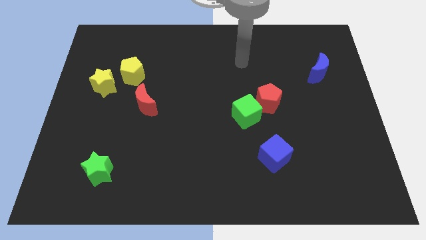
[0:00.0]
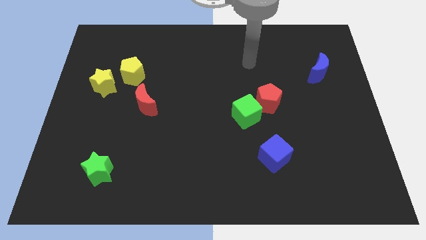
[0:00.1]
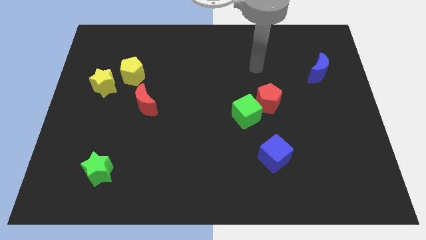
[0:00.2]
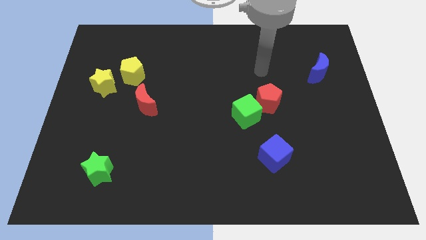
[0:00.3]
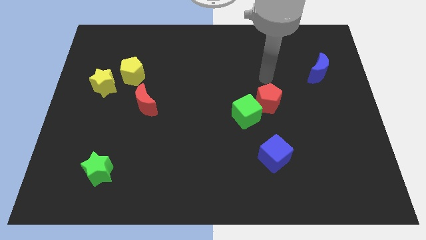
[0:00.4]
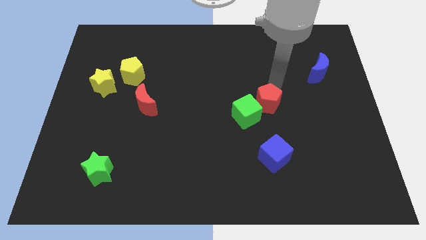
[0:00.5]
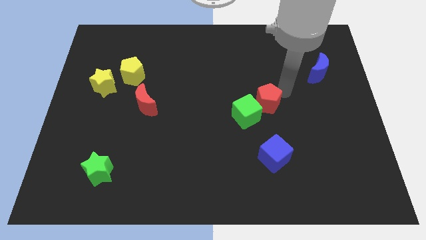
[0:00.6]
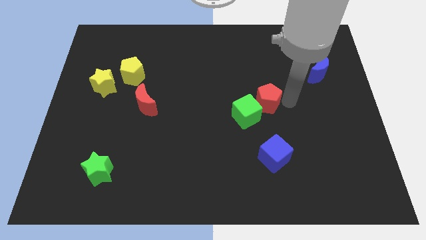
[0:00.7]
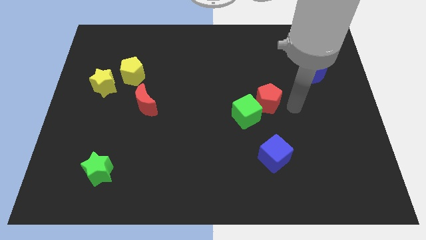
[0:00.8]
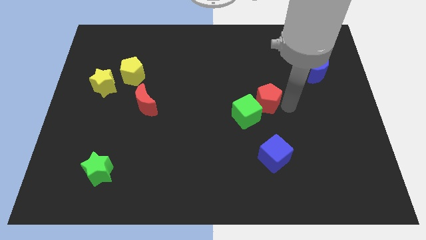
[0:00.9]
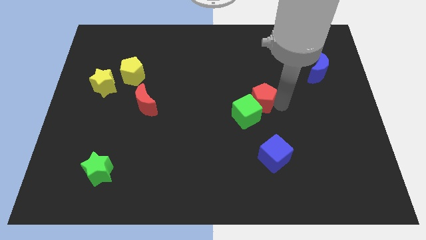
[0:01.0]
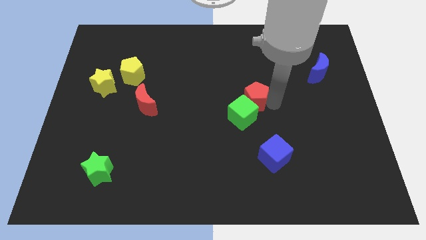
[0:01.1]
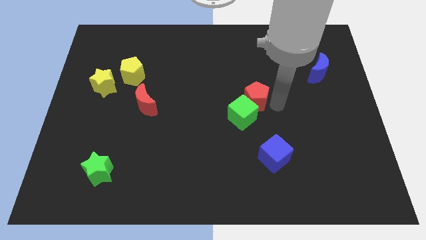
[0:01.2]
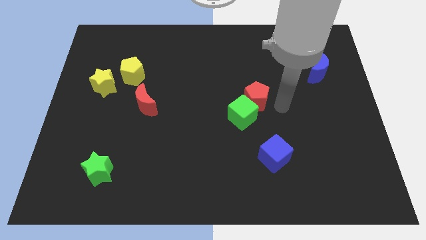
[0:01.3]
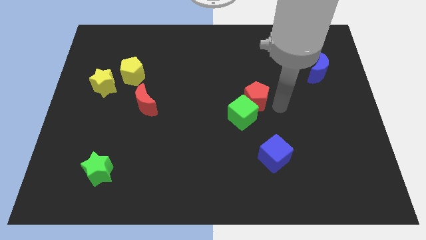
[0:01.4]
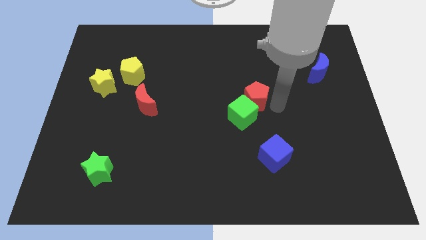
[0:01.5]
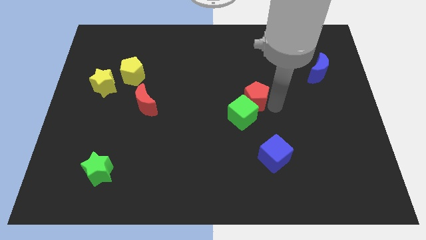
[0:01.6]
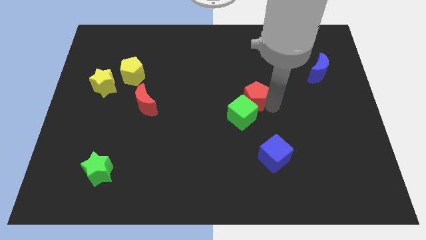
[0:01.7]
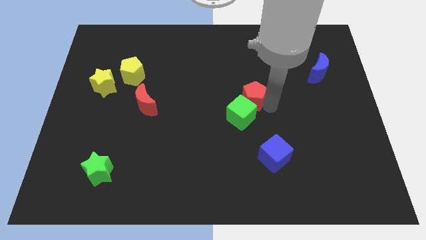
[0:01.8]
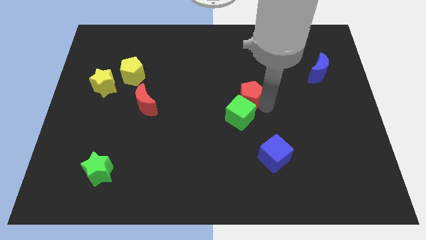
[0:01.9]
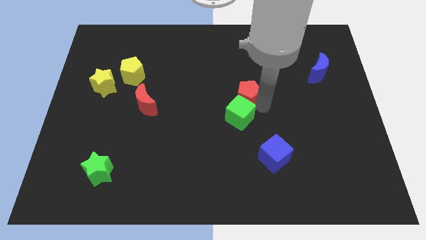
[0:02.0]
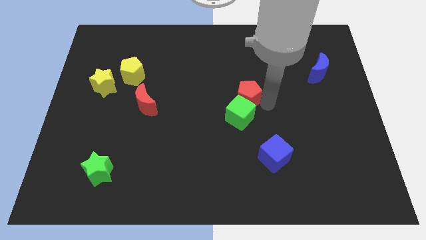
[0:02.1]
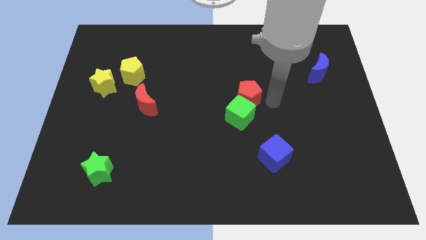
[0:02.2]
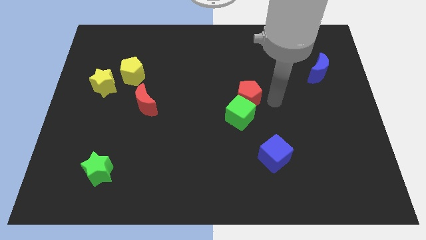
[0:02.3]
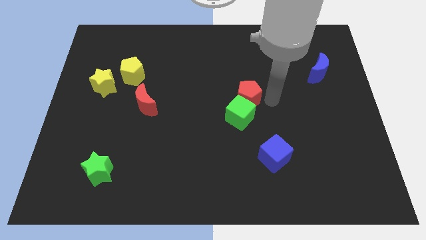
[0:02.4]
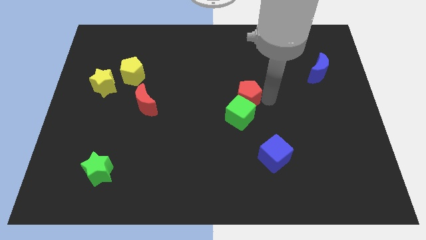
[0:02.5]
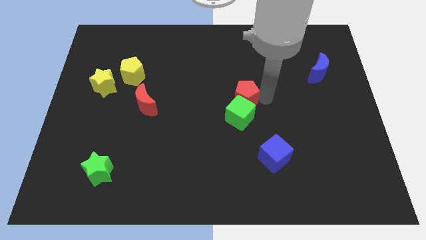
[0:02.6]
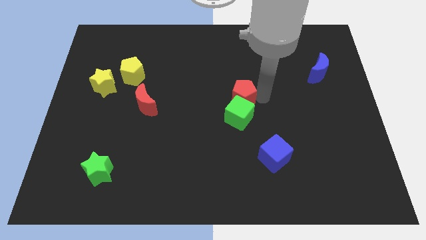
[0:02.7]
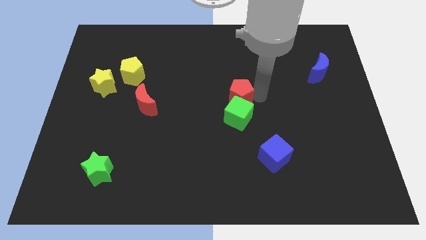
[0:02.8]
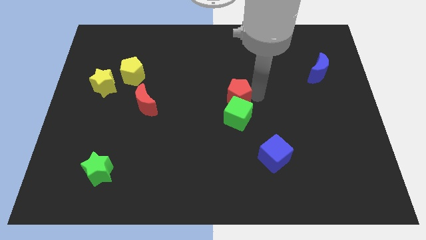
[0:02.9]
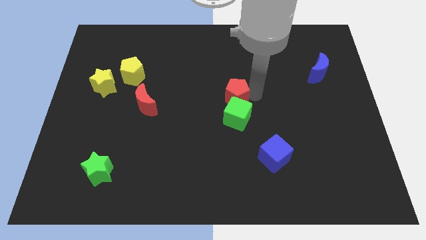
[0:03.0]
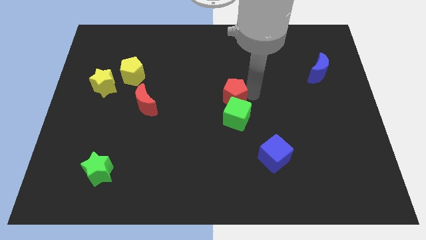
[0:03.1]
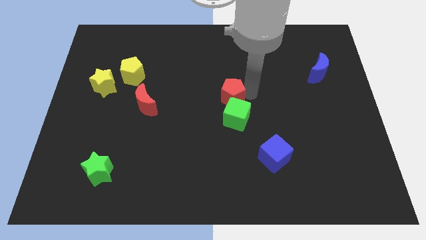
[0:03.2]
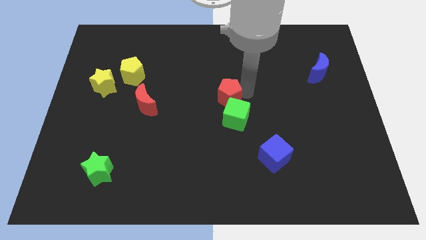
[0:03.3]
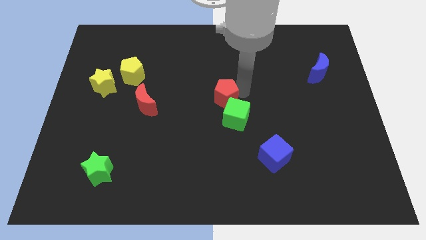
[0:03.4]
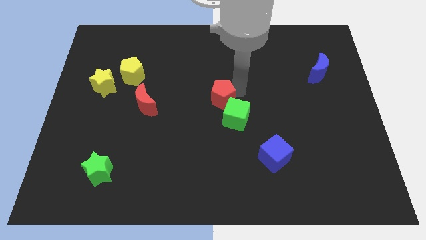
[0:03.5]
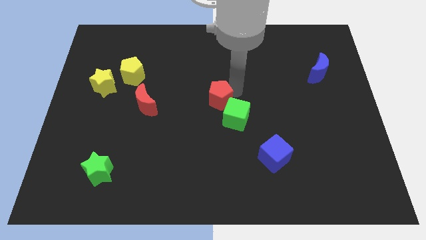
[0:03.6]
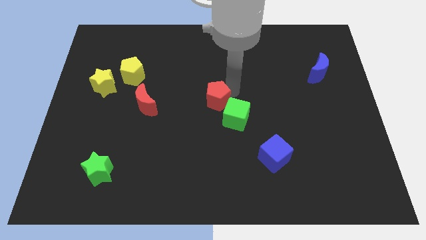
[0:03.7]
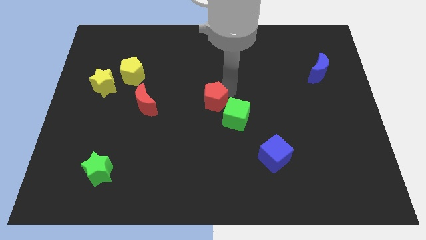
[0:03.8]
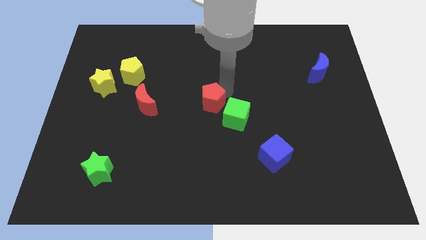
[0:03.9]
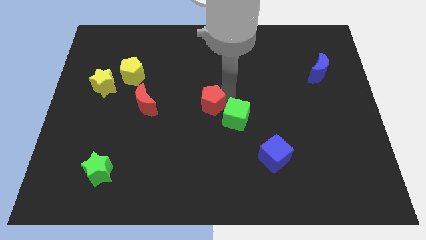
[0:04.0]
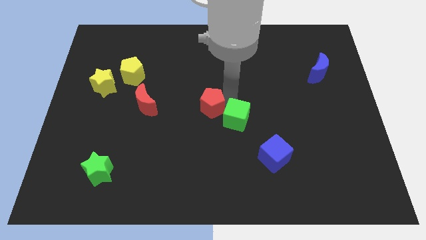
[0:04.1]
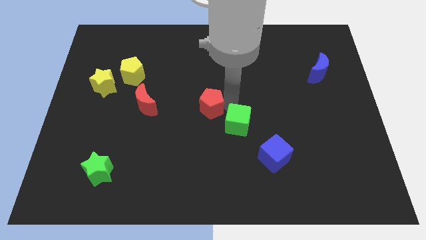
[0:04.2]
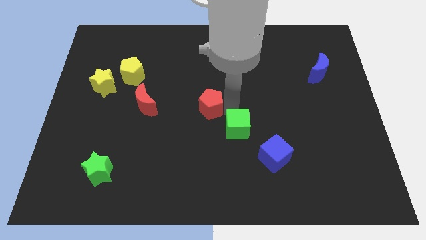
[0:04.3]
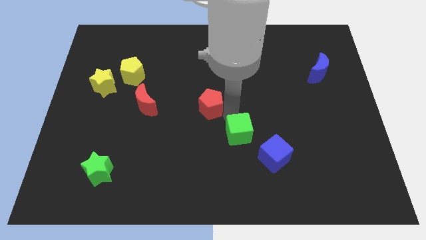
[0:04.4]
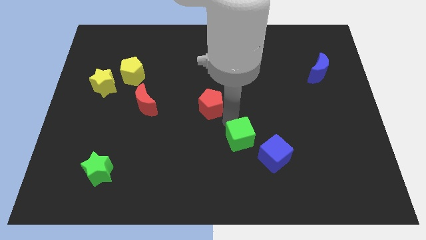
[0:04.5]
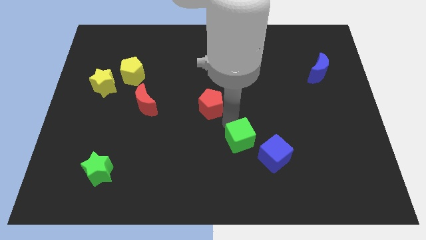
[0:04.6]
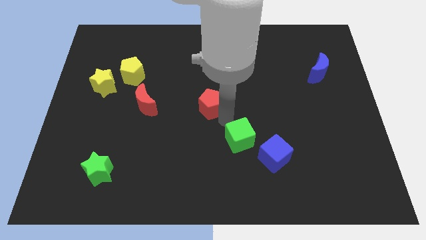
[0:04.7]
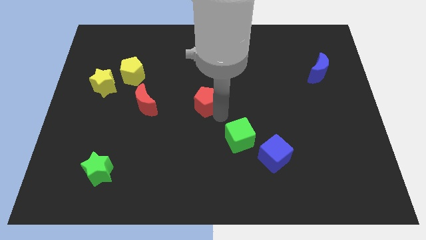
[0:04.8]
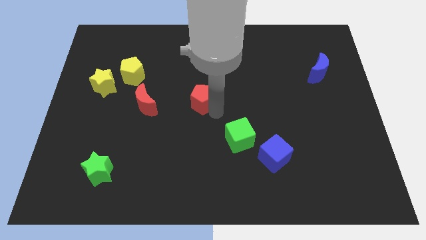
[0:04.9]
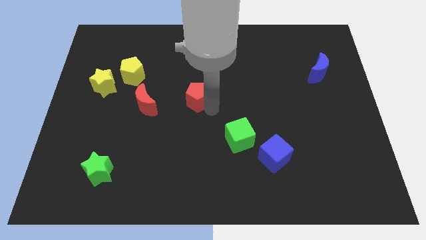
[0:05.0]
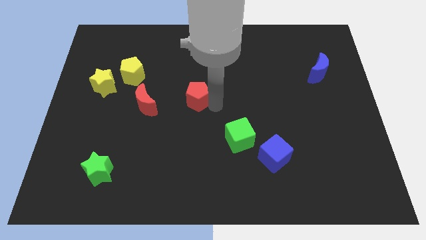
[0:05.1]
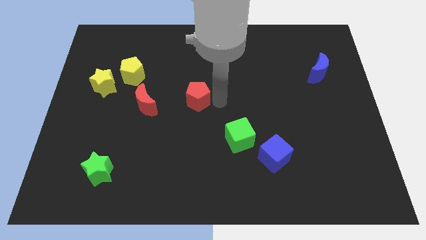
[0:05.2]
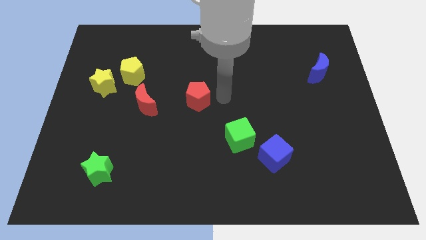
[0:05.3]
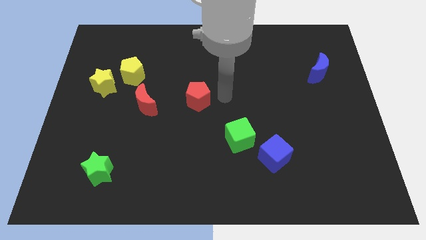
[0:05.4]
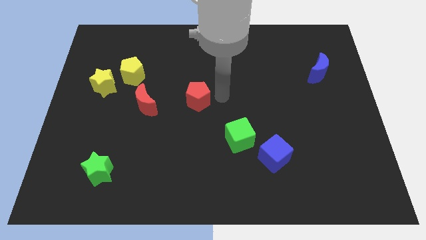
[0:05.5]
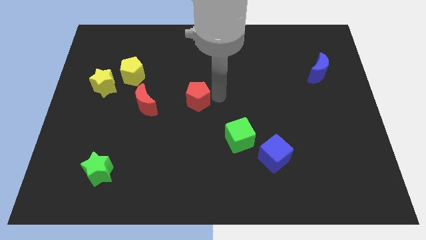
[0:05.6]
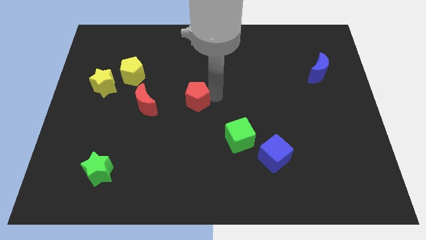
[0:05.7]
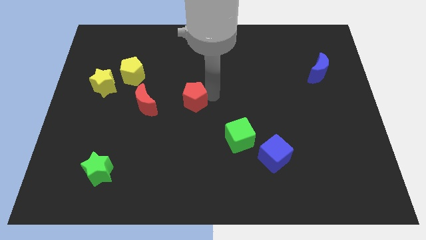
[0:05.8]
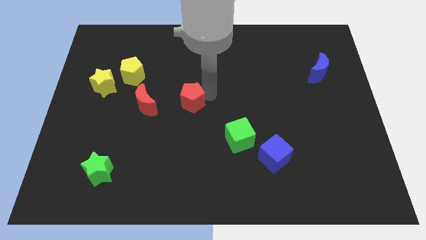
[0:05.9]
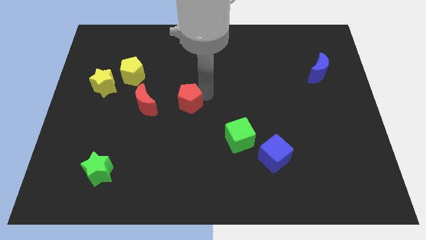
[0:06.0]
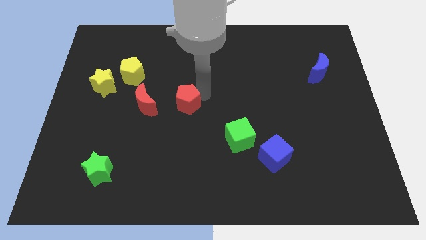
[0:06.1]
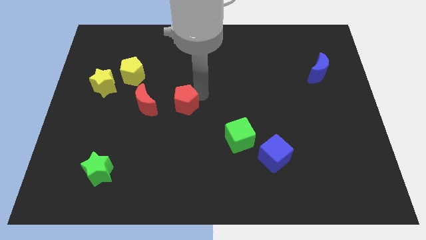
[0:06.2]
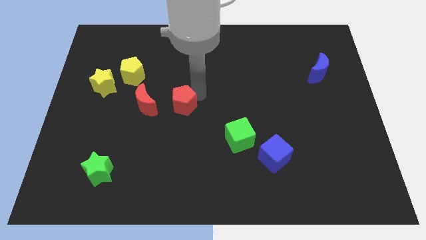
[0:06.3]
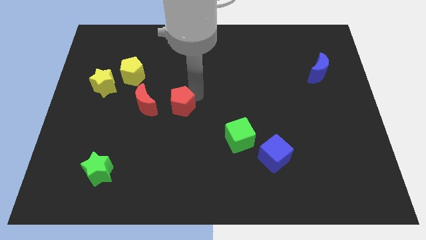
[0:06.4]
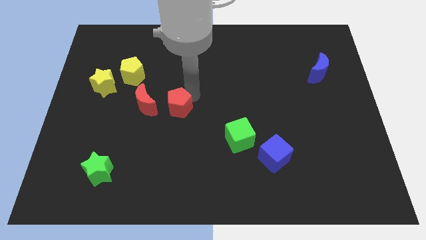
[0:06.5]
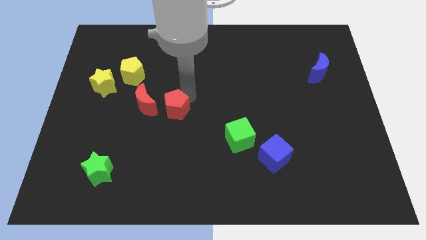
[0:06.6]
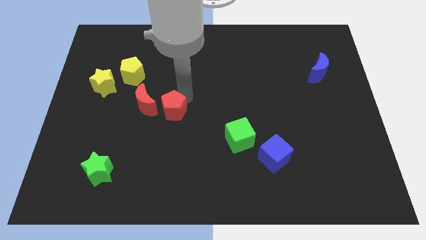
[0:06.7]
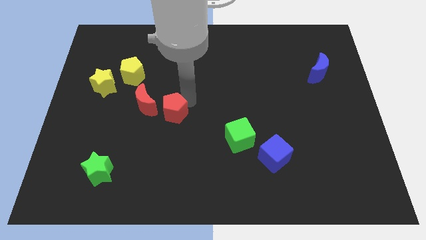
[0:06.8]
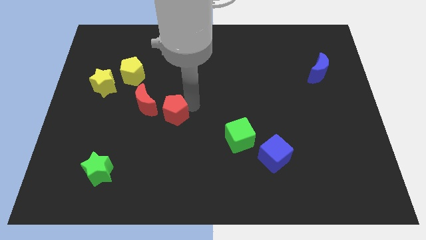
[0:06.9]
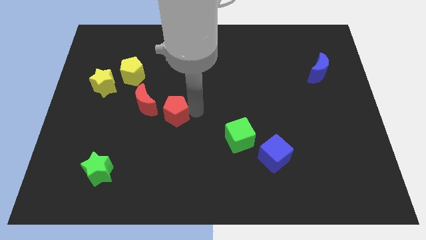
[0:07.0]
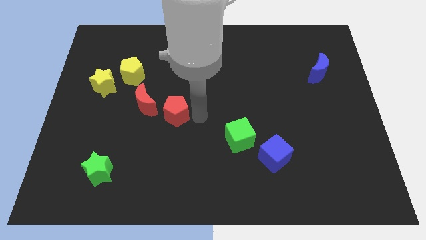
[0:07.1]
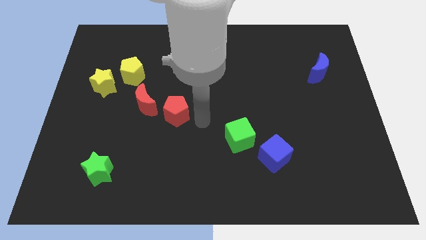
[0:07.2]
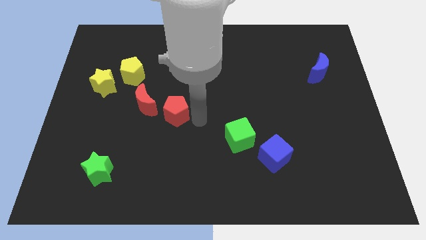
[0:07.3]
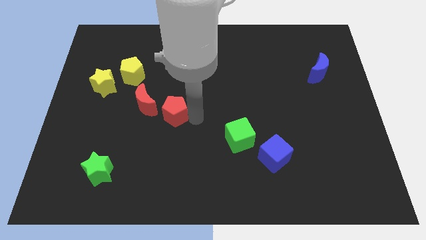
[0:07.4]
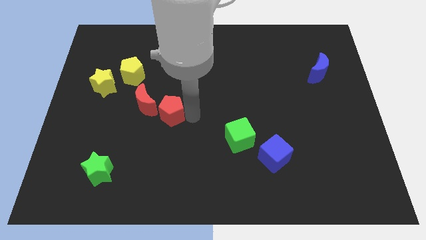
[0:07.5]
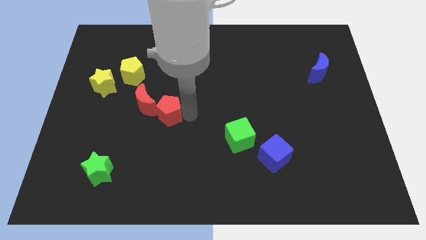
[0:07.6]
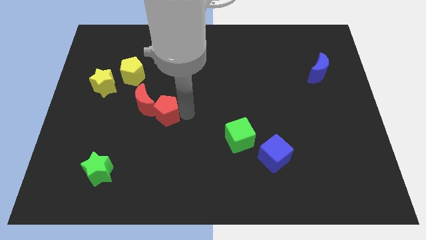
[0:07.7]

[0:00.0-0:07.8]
move the red pentagon close to the red moon
